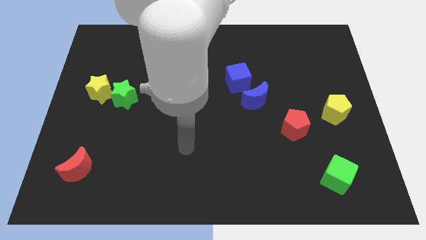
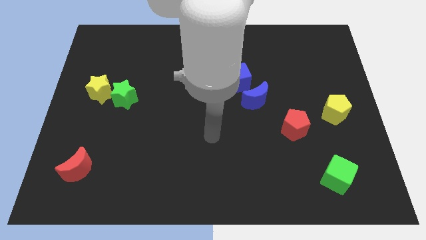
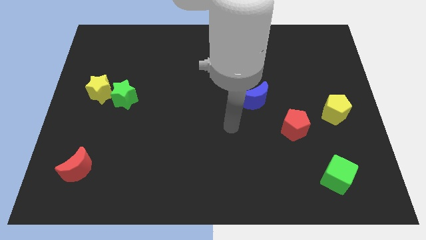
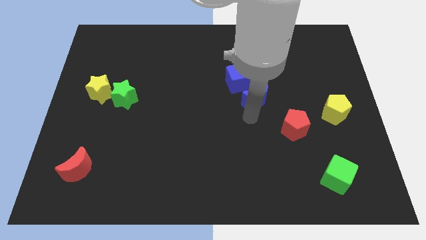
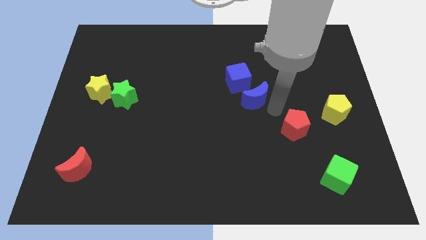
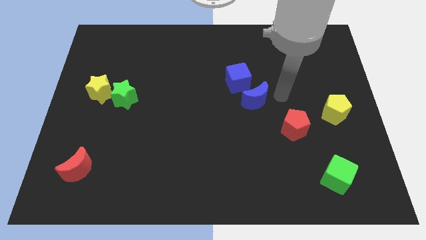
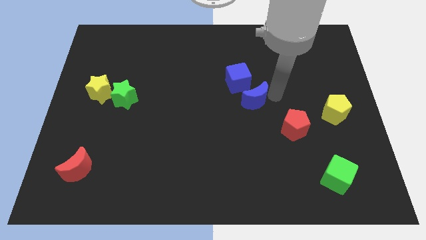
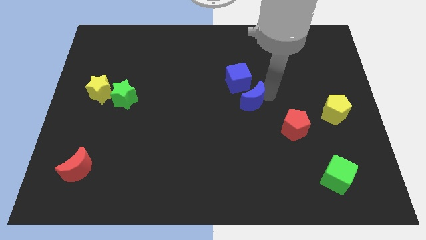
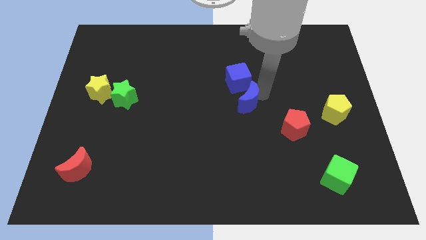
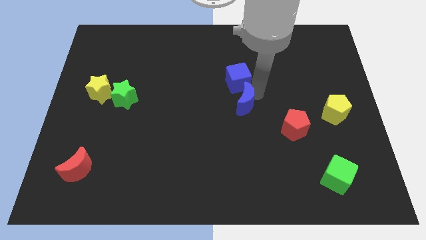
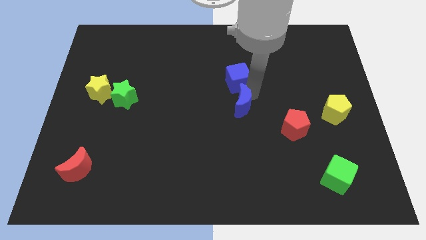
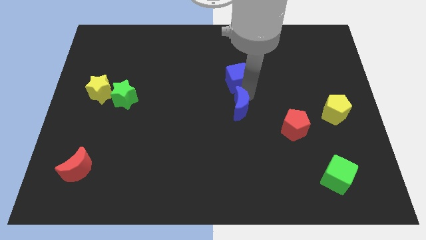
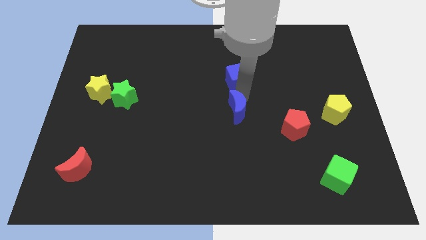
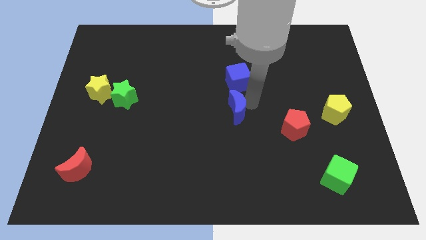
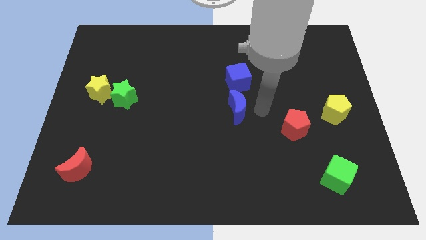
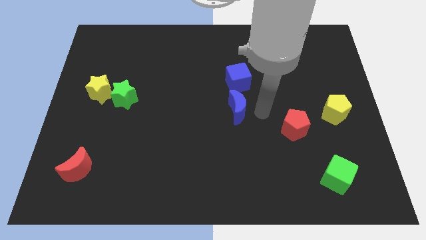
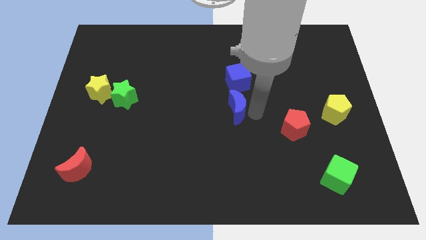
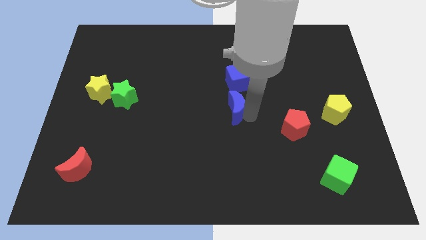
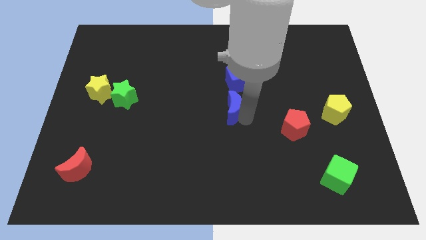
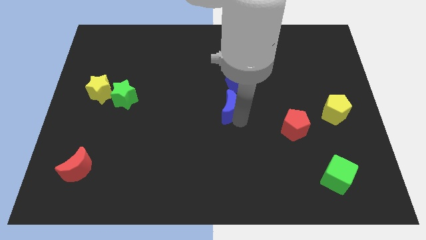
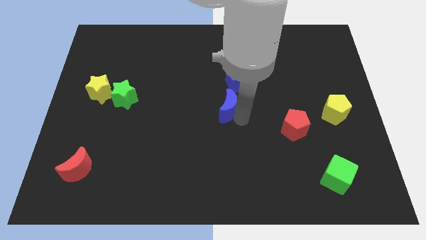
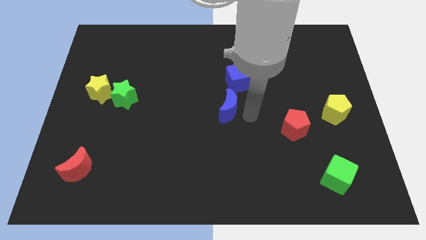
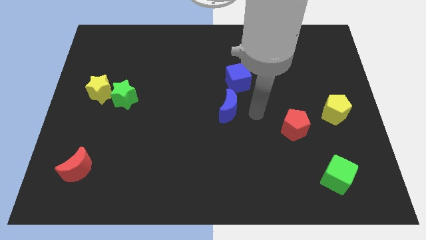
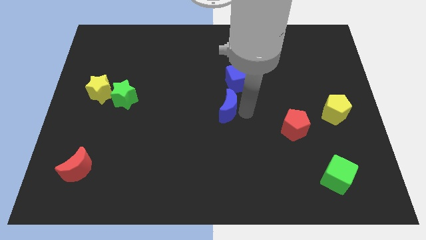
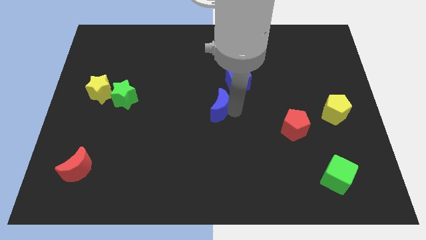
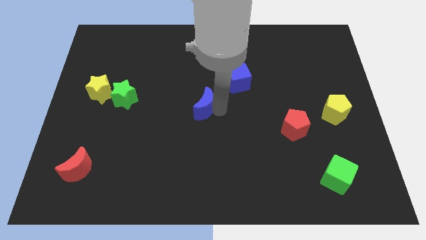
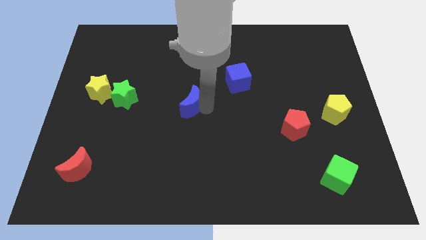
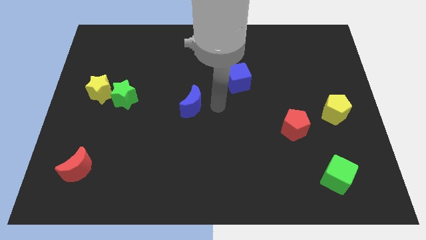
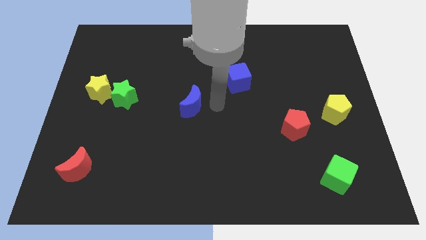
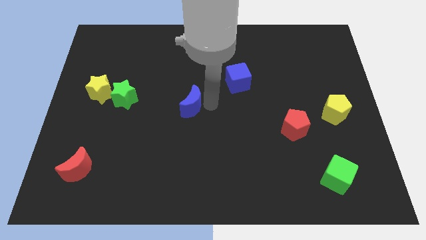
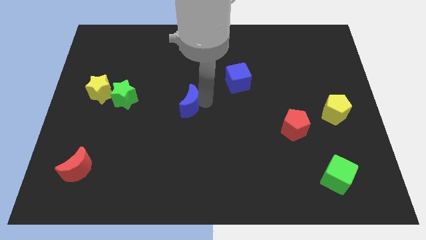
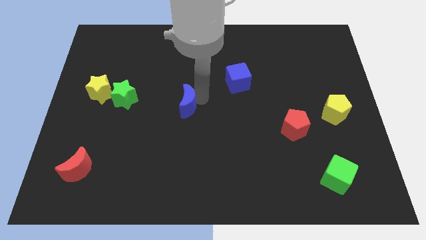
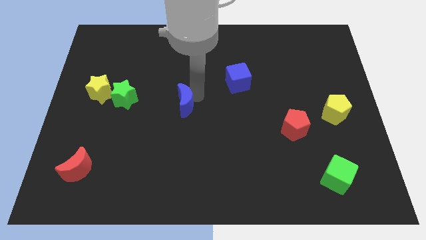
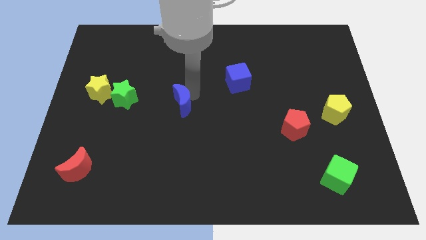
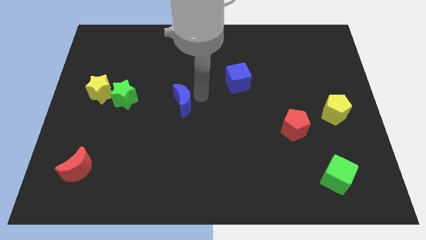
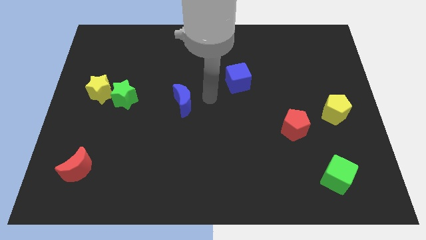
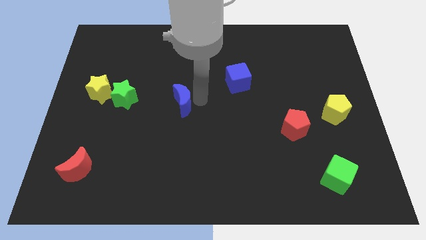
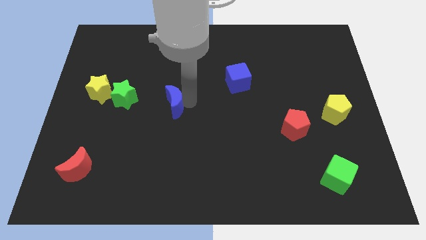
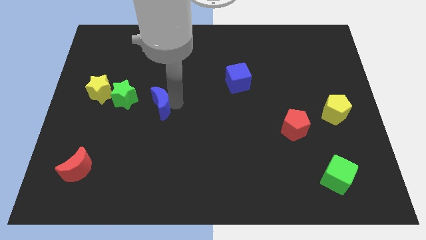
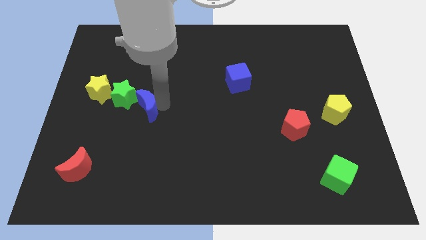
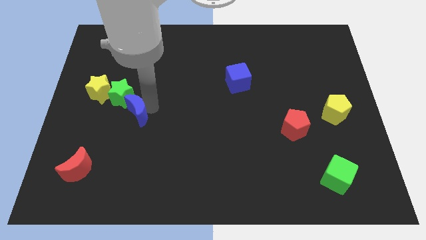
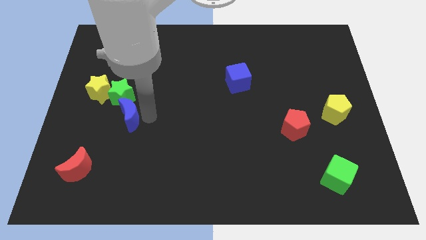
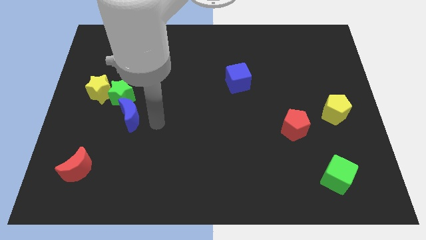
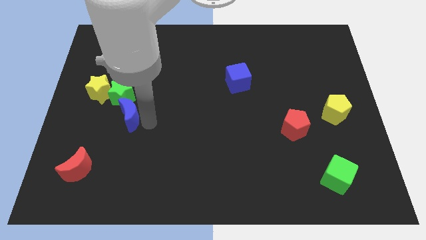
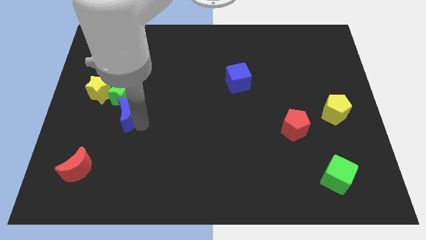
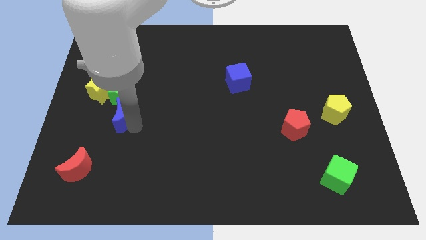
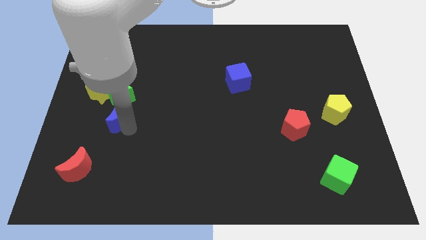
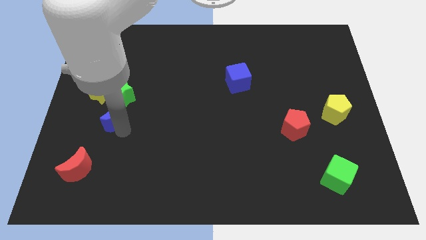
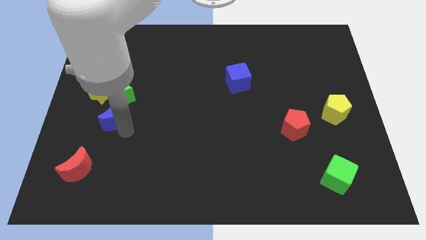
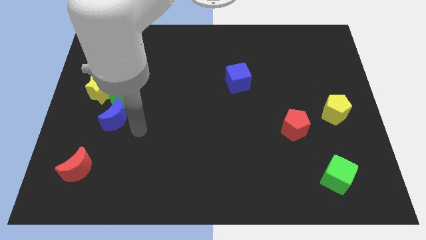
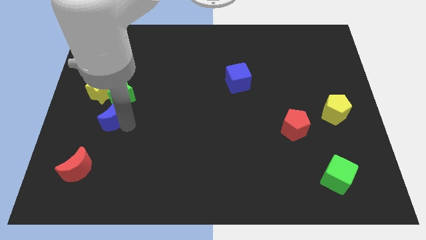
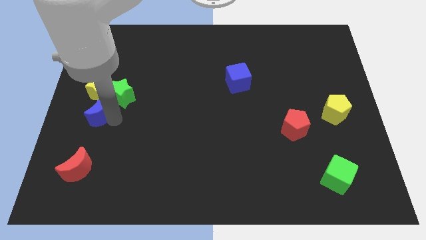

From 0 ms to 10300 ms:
put the blue moon to the left side of the board
